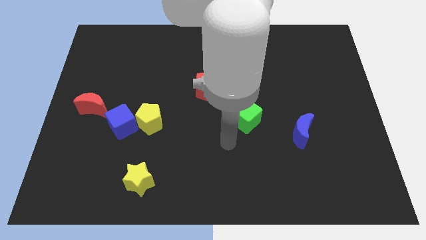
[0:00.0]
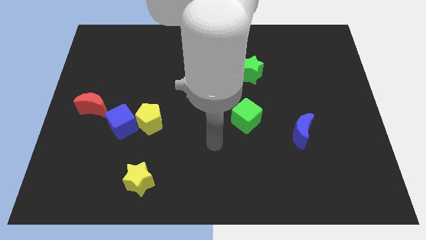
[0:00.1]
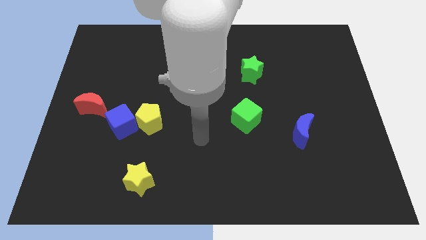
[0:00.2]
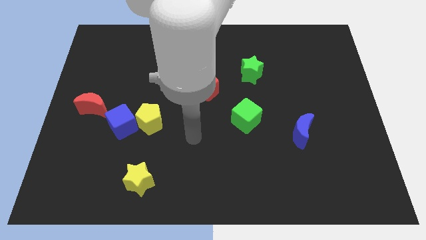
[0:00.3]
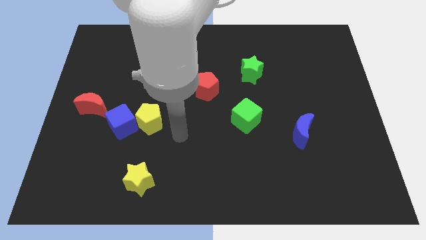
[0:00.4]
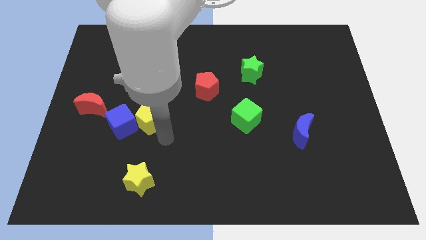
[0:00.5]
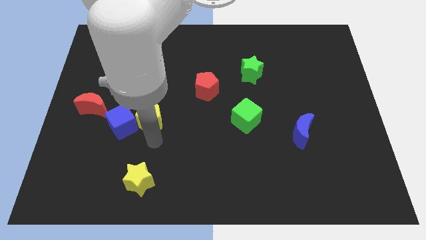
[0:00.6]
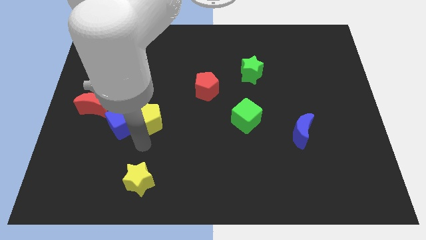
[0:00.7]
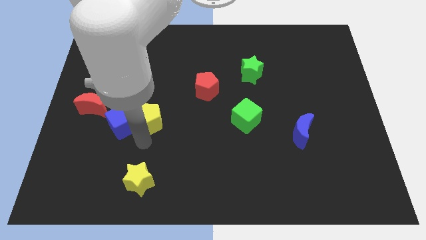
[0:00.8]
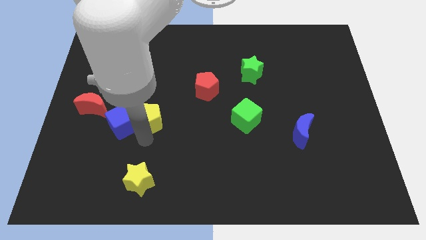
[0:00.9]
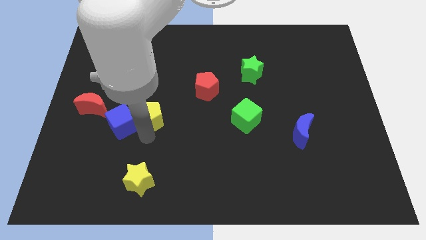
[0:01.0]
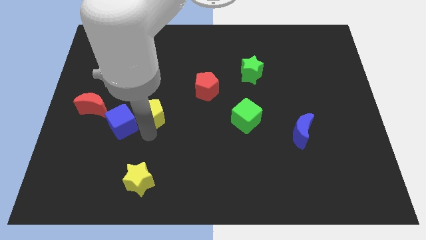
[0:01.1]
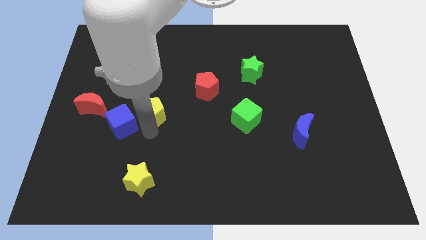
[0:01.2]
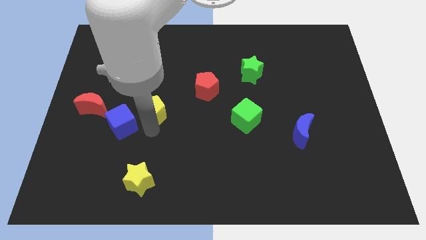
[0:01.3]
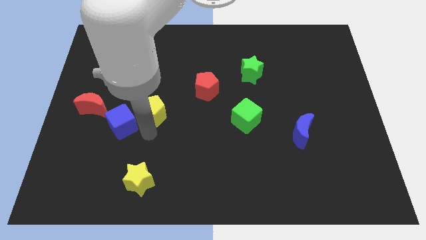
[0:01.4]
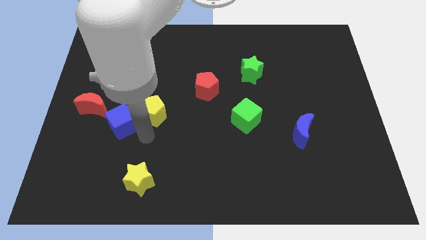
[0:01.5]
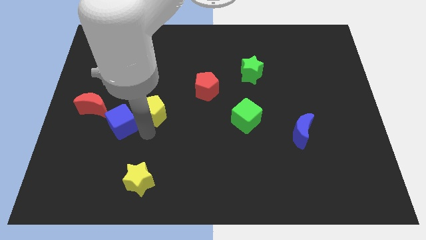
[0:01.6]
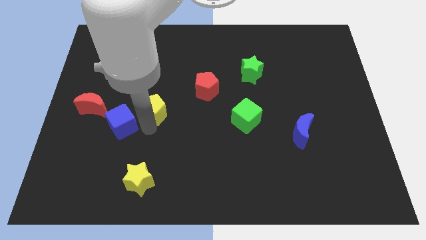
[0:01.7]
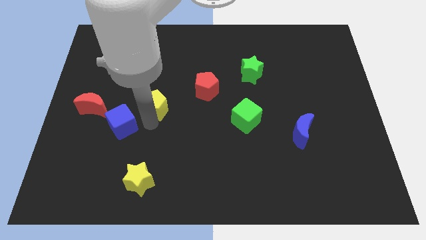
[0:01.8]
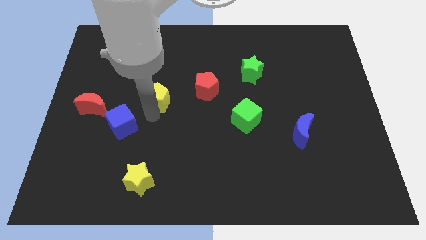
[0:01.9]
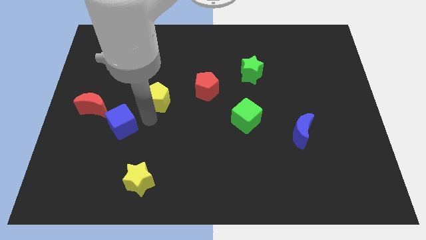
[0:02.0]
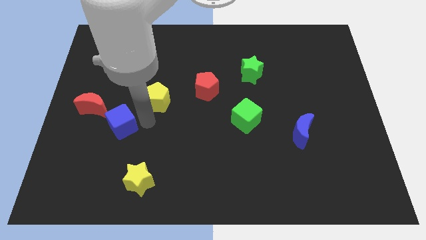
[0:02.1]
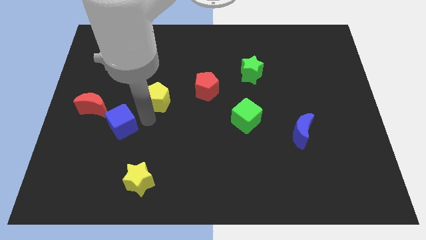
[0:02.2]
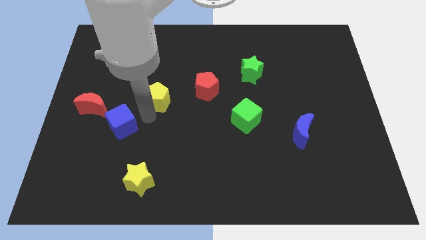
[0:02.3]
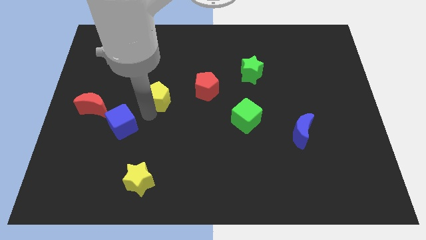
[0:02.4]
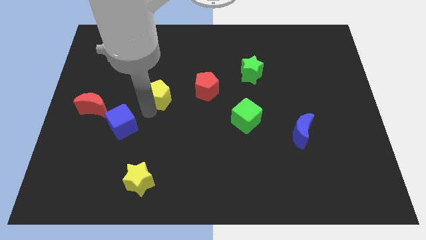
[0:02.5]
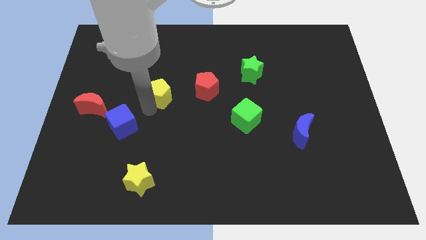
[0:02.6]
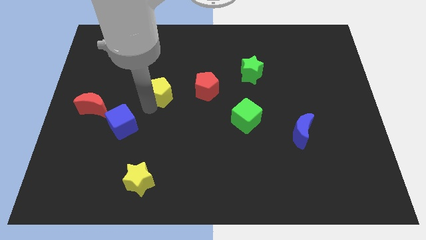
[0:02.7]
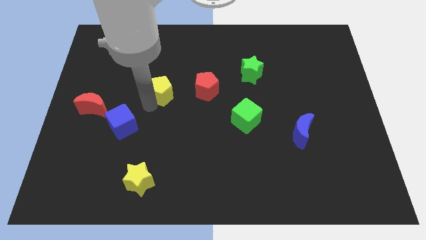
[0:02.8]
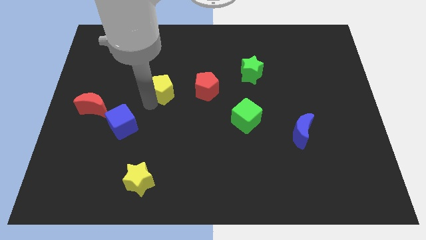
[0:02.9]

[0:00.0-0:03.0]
slide the yellow pentagon a bit upwards and then right

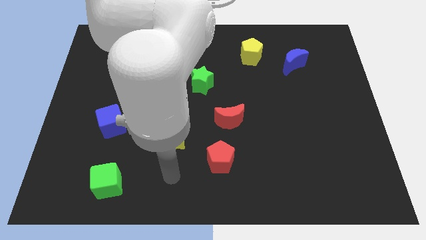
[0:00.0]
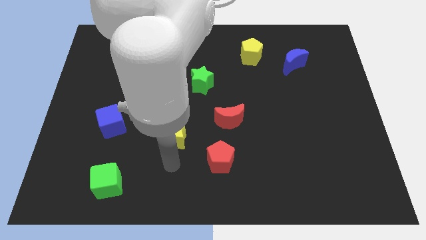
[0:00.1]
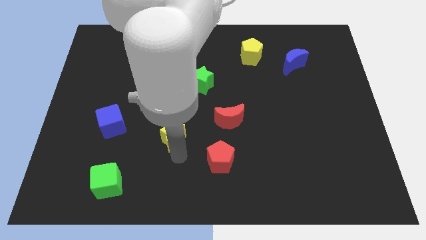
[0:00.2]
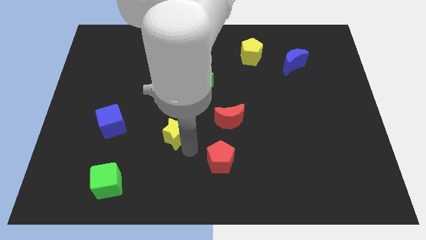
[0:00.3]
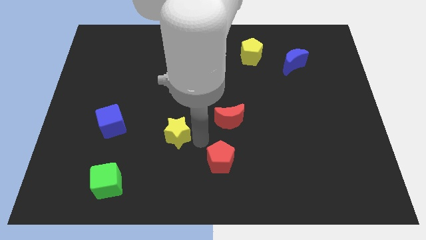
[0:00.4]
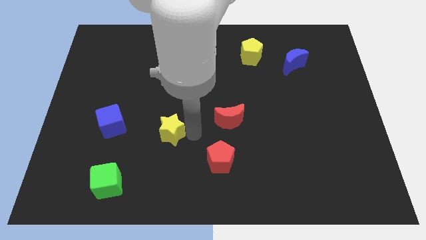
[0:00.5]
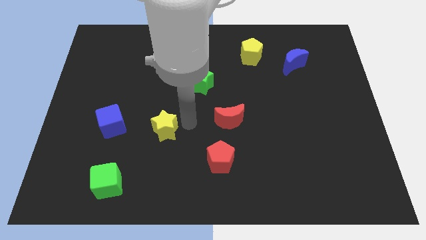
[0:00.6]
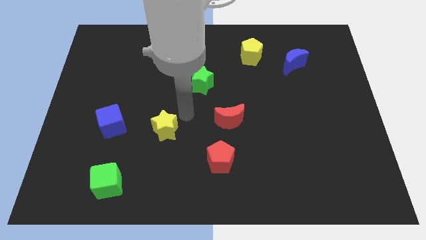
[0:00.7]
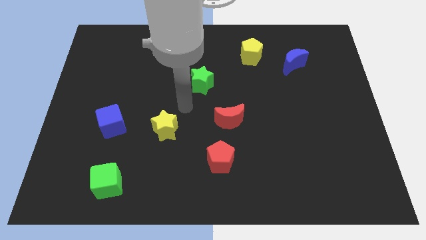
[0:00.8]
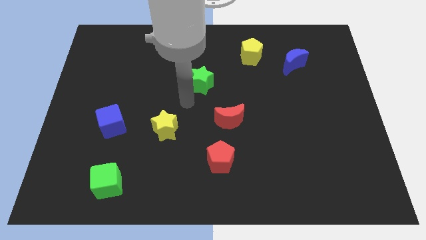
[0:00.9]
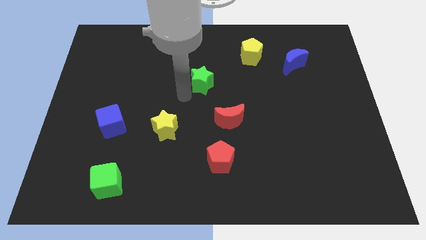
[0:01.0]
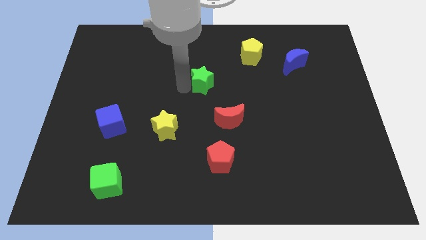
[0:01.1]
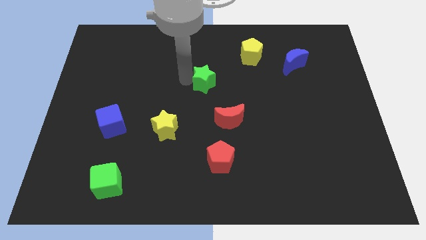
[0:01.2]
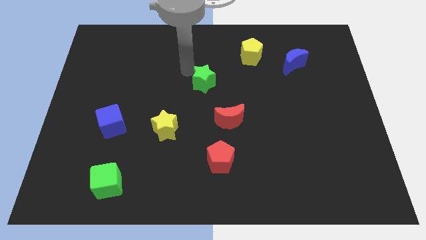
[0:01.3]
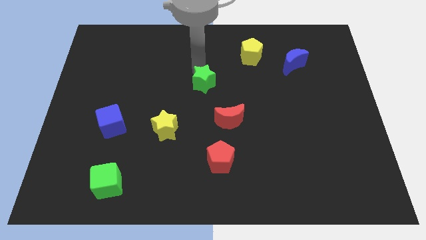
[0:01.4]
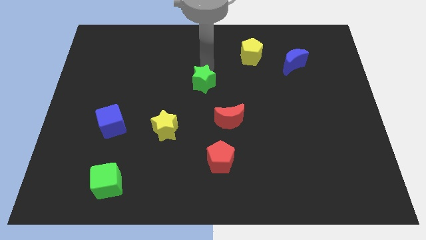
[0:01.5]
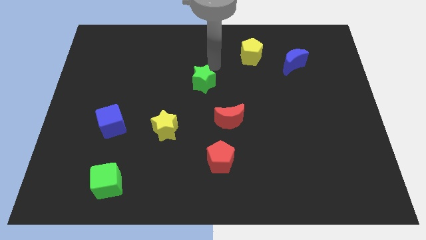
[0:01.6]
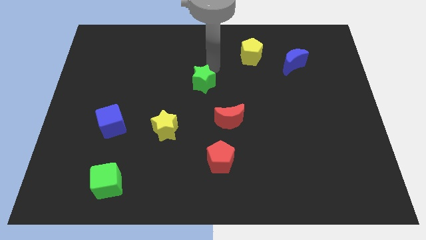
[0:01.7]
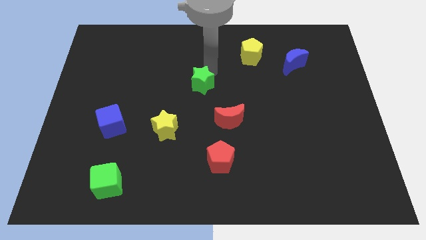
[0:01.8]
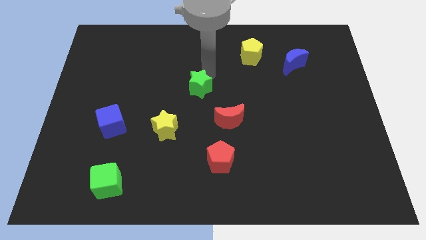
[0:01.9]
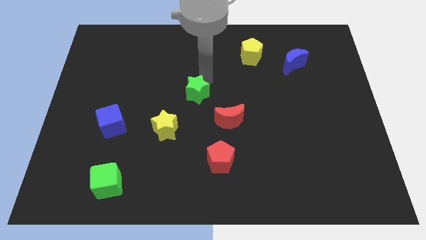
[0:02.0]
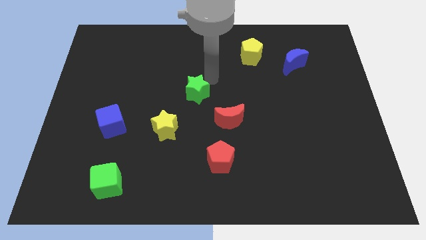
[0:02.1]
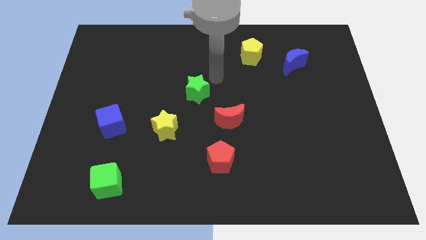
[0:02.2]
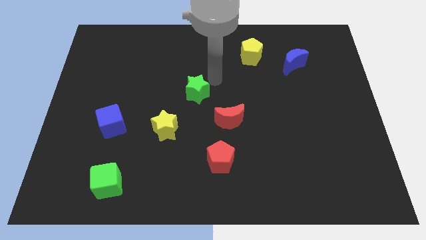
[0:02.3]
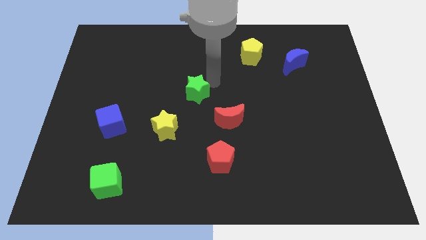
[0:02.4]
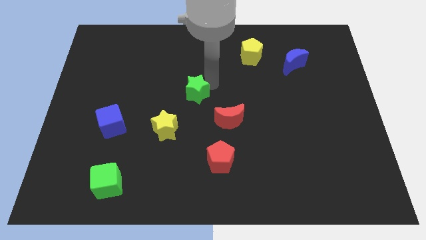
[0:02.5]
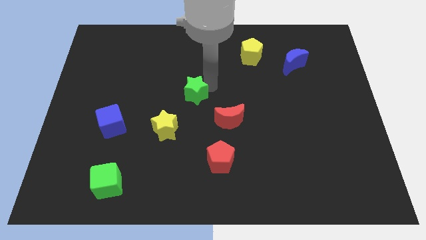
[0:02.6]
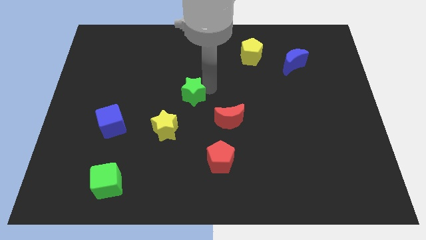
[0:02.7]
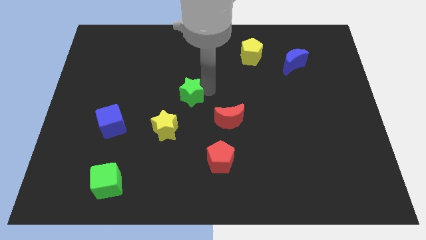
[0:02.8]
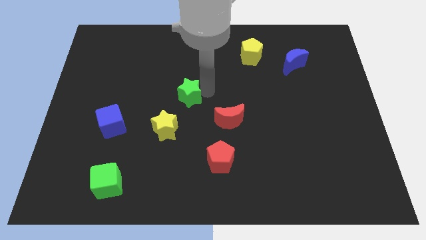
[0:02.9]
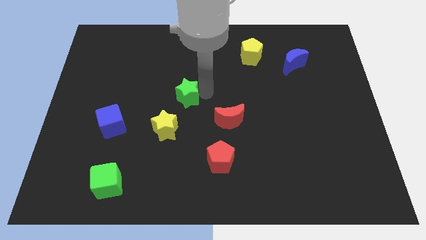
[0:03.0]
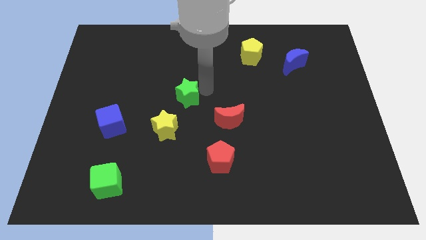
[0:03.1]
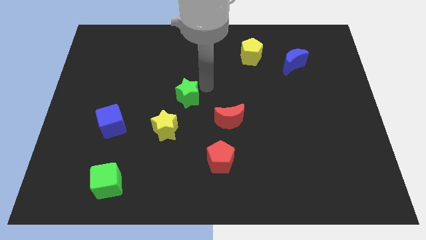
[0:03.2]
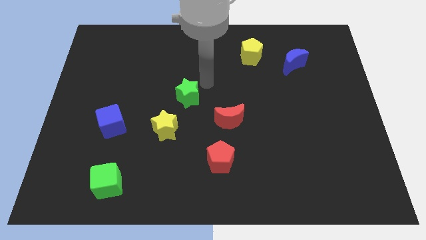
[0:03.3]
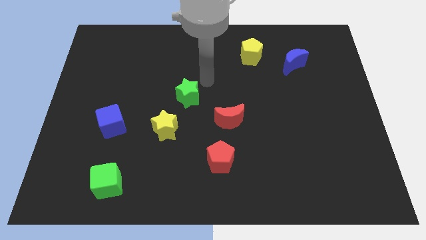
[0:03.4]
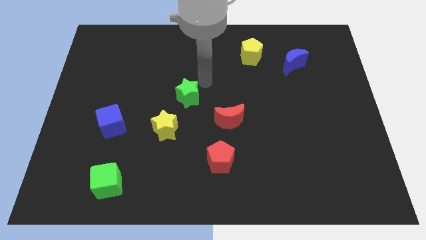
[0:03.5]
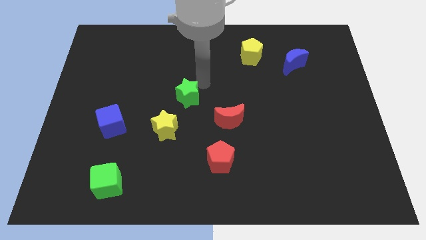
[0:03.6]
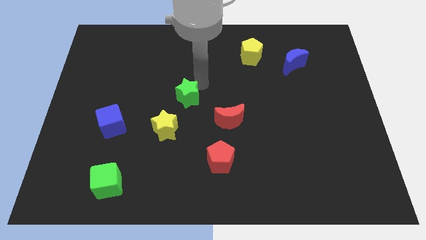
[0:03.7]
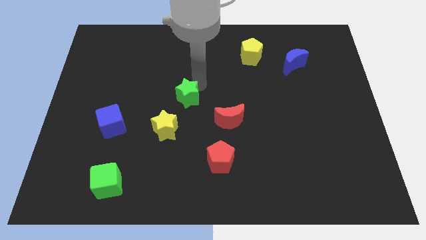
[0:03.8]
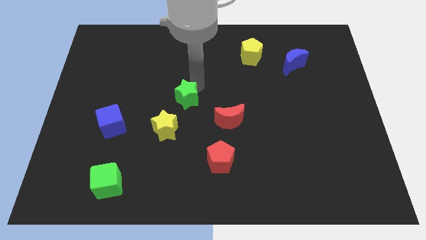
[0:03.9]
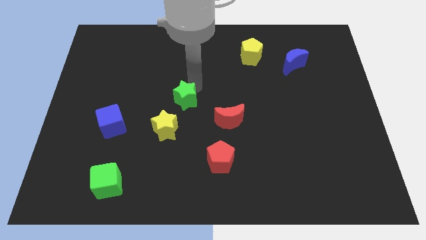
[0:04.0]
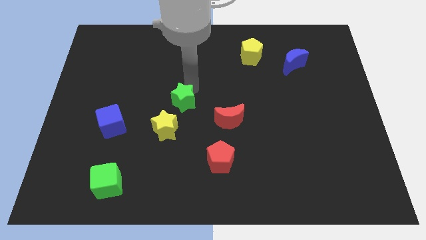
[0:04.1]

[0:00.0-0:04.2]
move the green star a bit downwards and then left

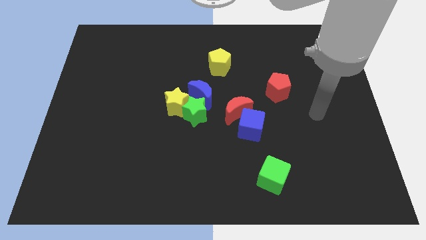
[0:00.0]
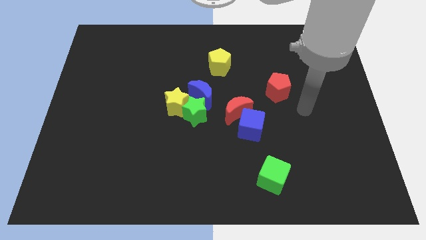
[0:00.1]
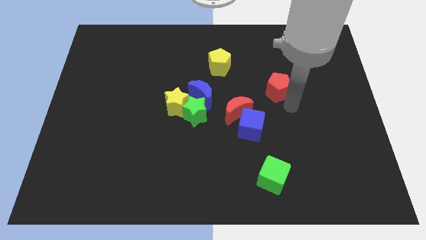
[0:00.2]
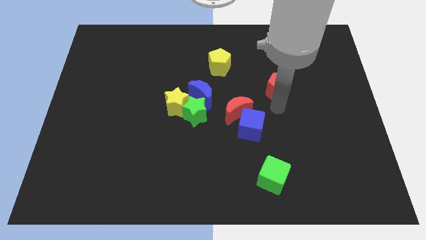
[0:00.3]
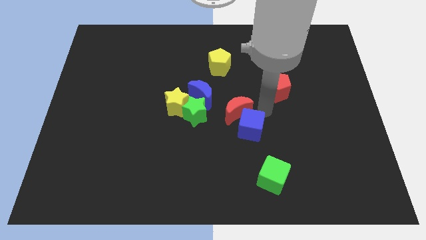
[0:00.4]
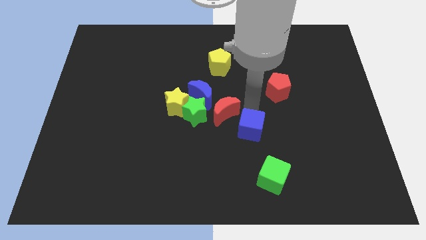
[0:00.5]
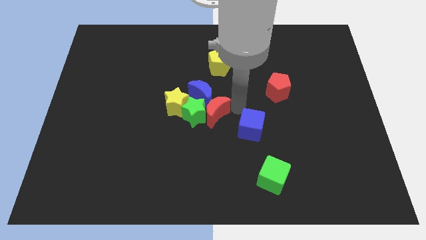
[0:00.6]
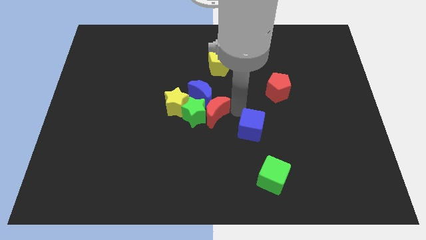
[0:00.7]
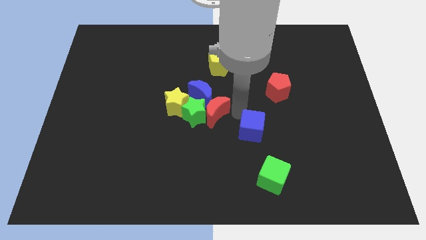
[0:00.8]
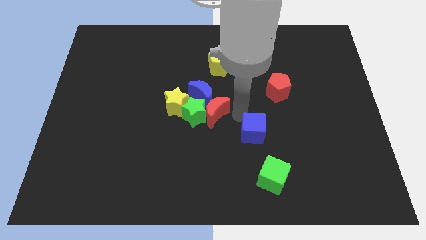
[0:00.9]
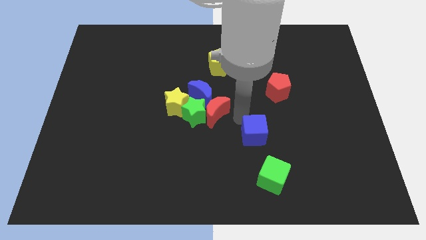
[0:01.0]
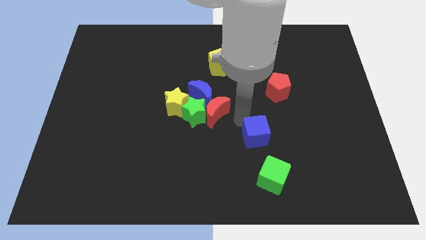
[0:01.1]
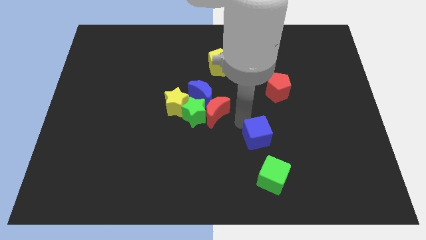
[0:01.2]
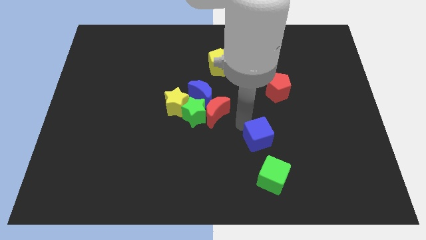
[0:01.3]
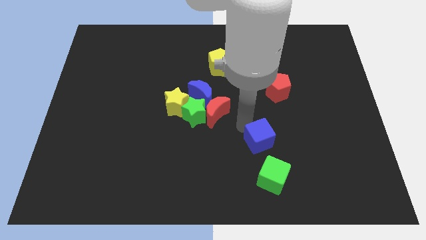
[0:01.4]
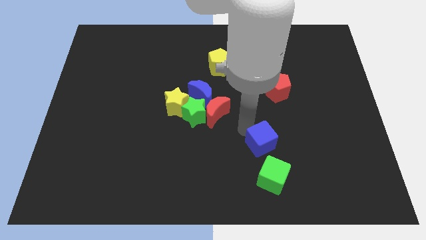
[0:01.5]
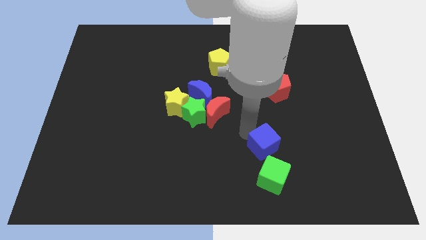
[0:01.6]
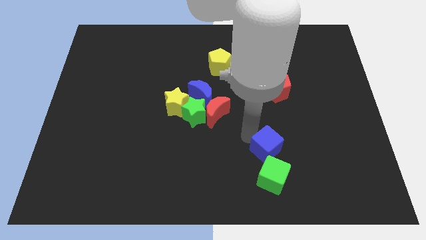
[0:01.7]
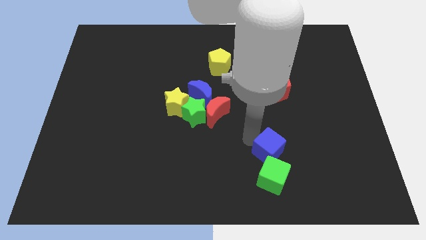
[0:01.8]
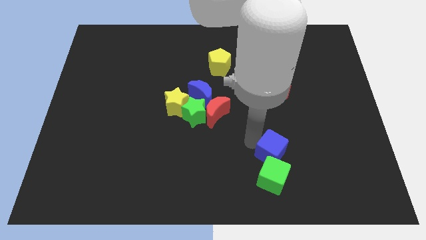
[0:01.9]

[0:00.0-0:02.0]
push the blue cube somewhat downwards and to the right diagonally
